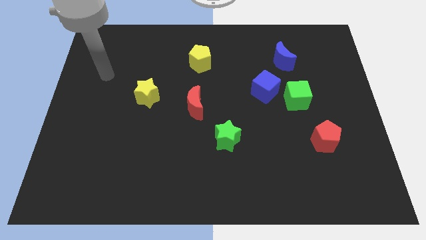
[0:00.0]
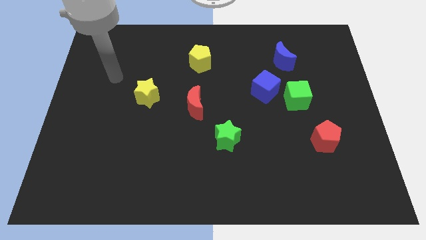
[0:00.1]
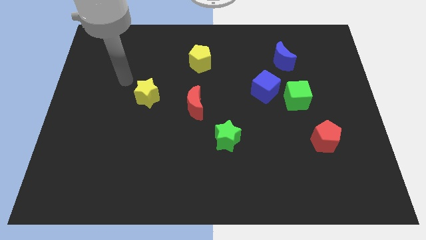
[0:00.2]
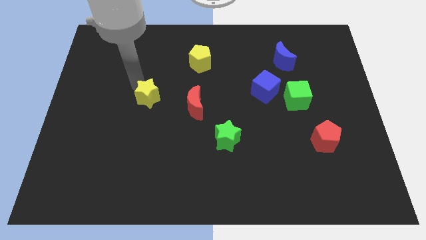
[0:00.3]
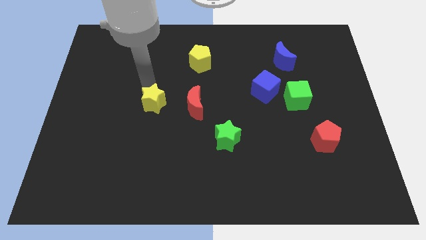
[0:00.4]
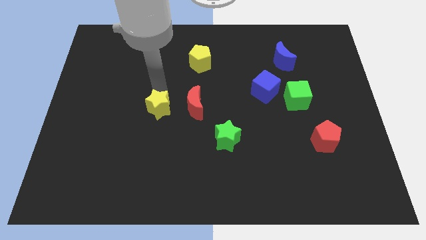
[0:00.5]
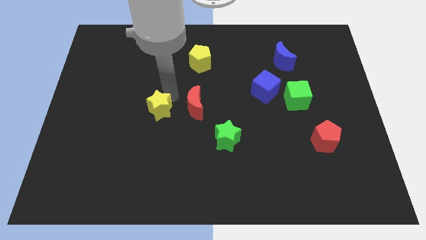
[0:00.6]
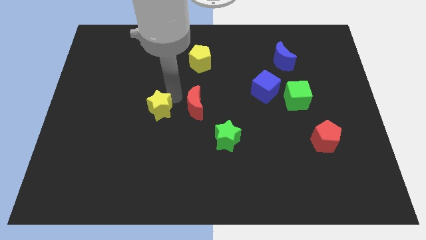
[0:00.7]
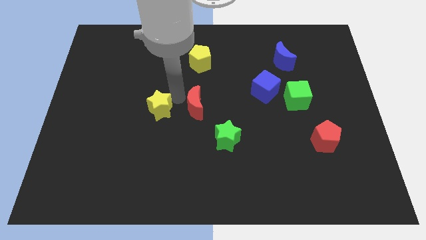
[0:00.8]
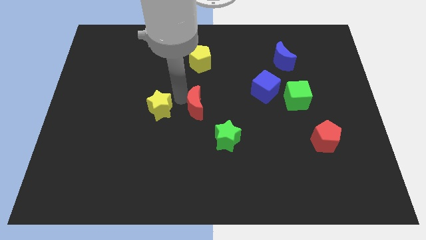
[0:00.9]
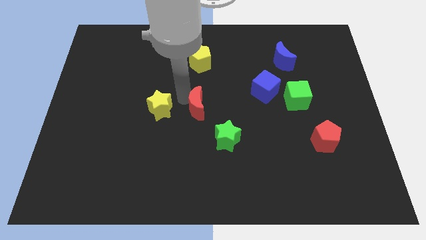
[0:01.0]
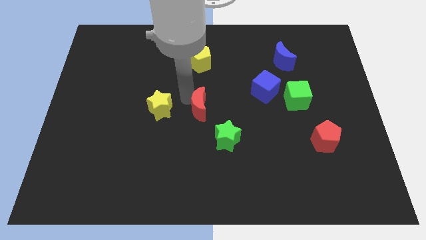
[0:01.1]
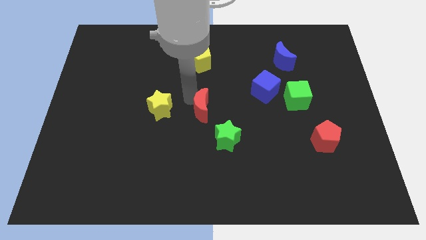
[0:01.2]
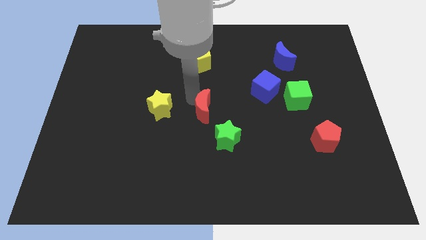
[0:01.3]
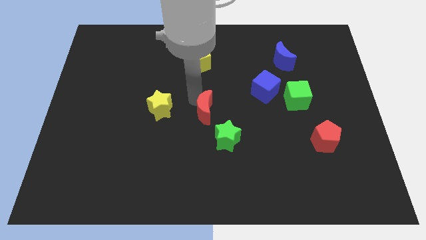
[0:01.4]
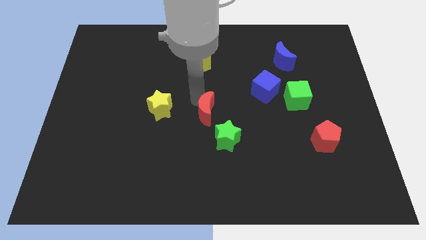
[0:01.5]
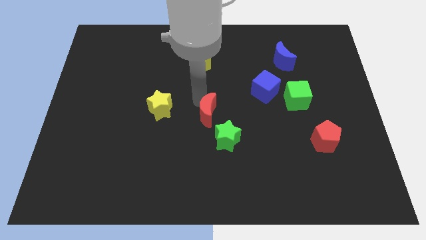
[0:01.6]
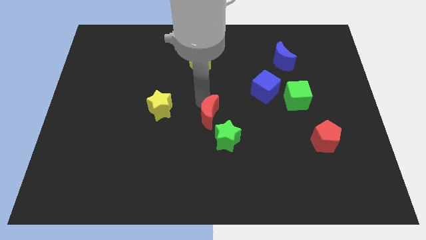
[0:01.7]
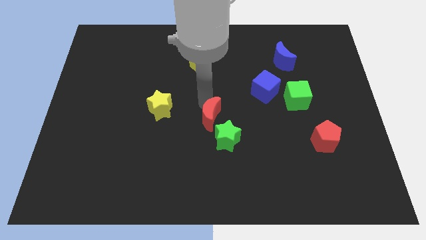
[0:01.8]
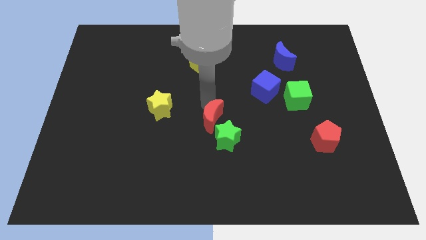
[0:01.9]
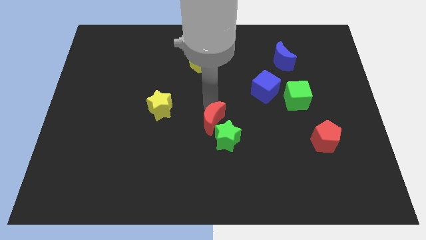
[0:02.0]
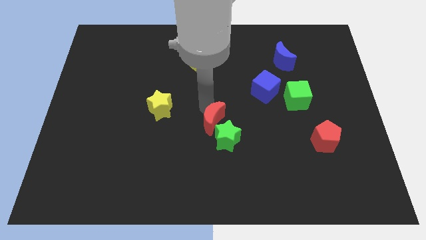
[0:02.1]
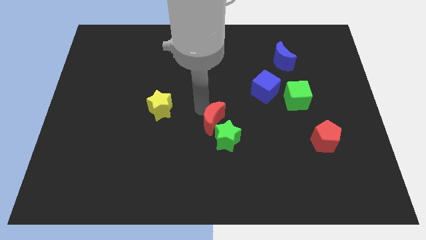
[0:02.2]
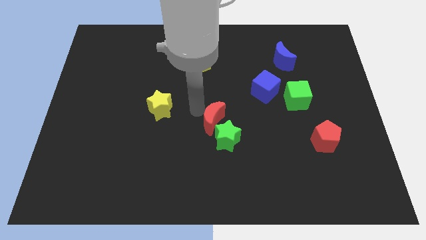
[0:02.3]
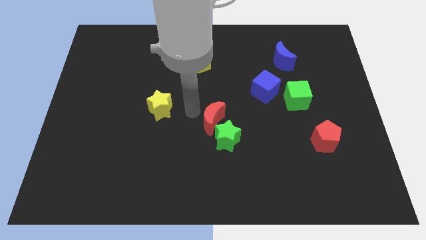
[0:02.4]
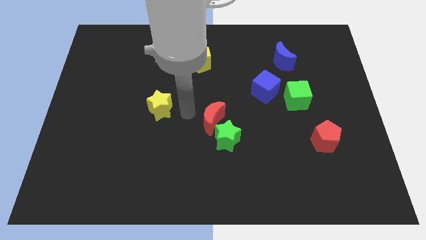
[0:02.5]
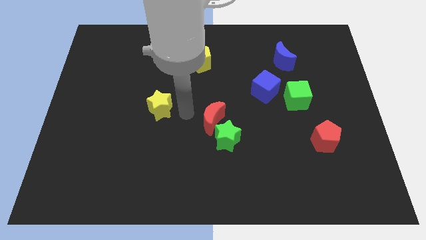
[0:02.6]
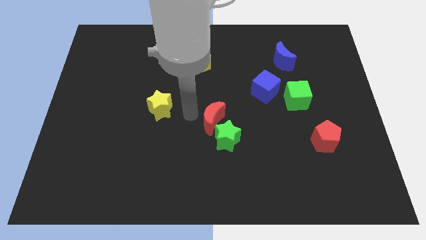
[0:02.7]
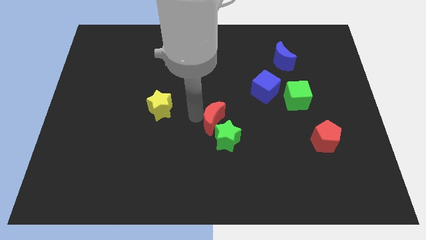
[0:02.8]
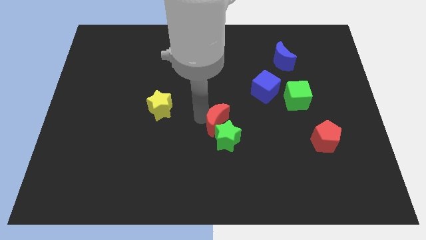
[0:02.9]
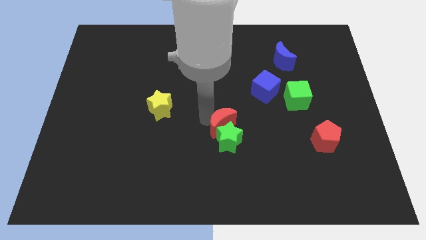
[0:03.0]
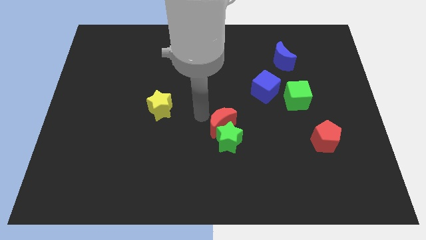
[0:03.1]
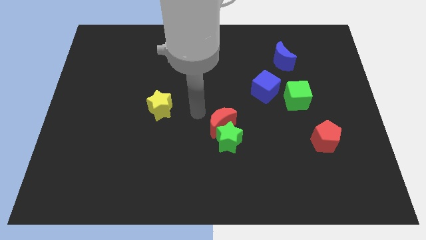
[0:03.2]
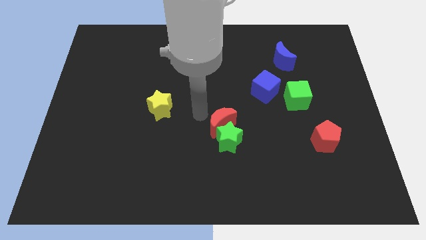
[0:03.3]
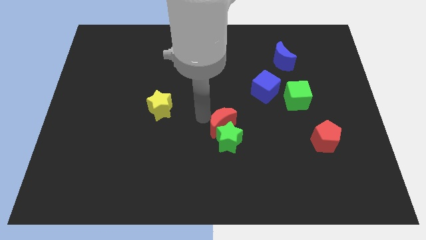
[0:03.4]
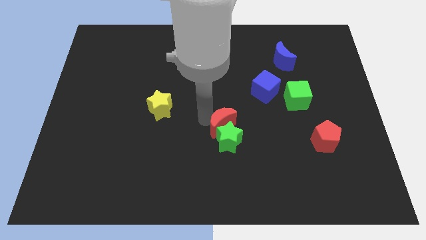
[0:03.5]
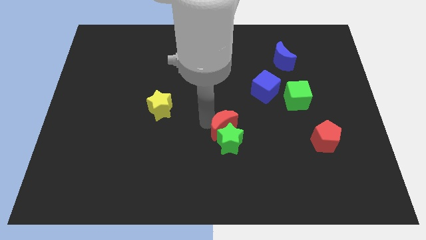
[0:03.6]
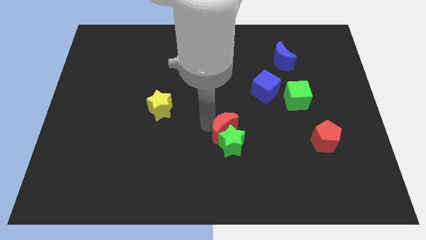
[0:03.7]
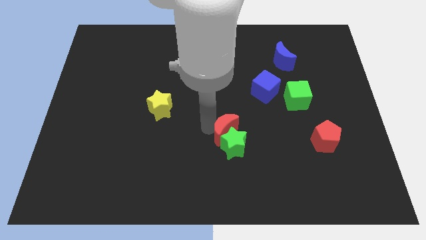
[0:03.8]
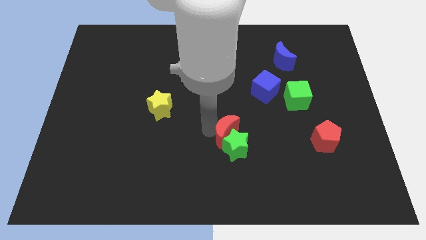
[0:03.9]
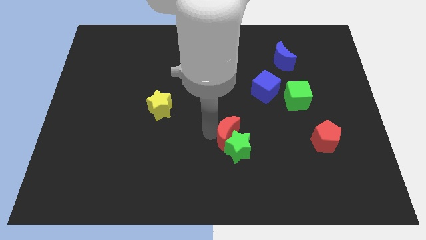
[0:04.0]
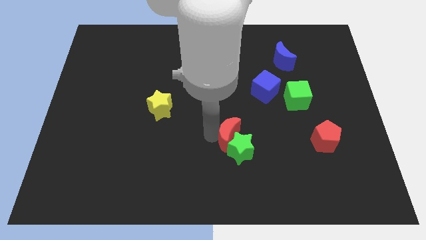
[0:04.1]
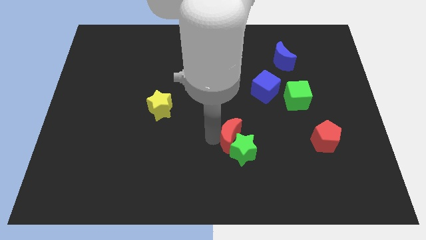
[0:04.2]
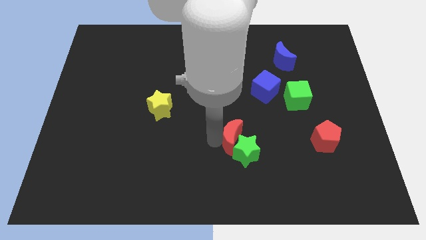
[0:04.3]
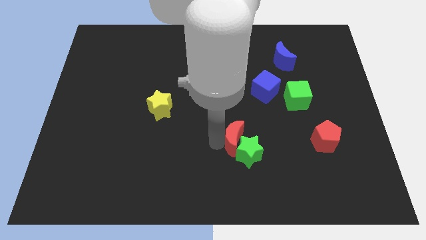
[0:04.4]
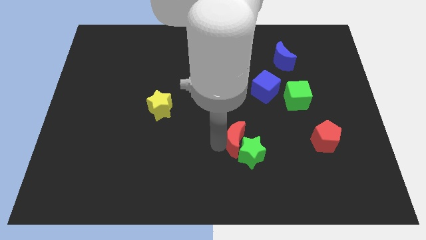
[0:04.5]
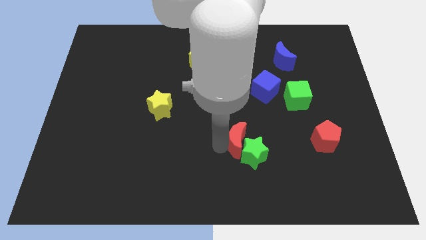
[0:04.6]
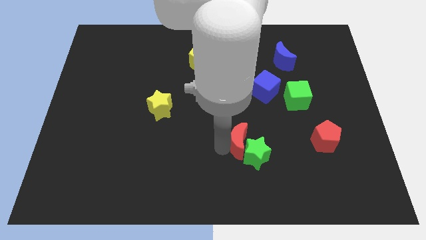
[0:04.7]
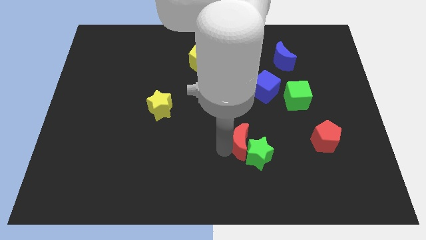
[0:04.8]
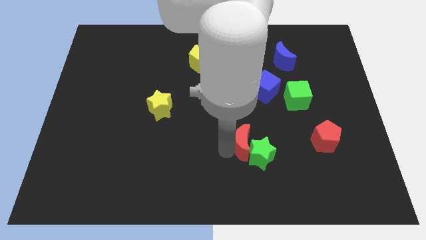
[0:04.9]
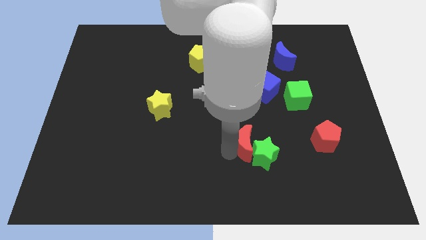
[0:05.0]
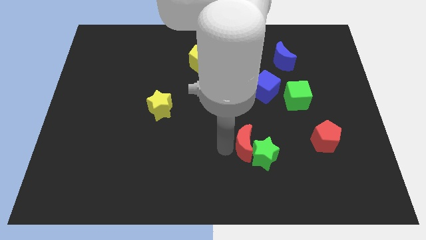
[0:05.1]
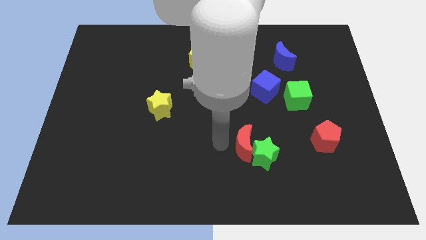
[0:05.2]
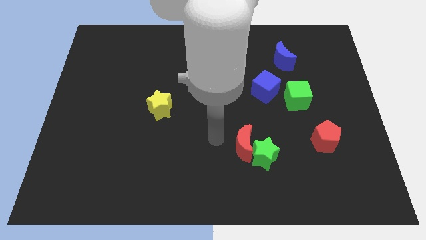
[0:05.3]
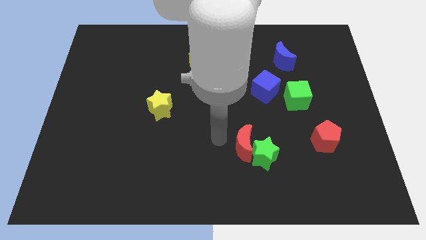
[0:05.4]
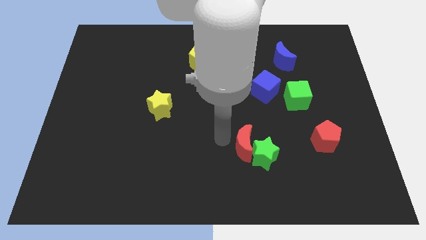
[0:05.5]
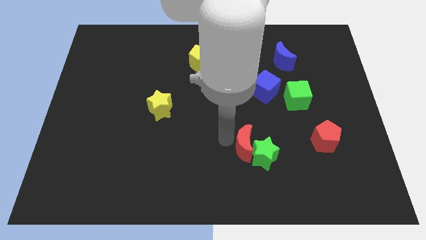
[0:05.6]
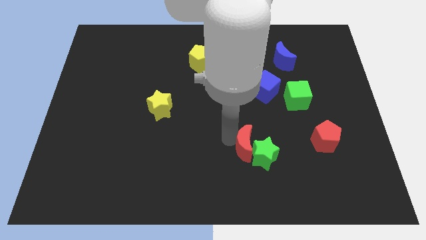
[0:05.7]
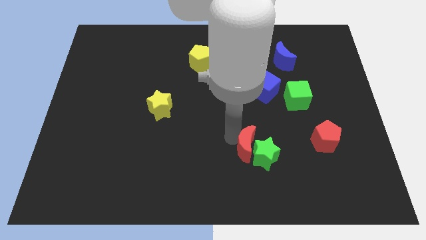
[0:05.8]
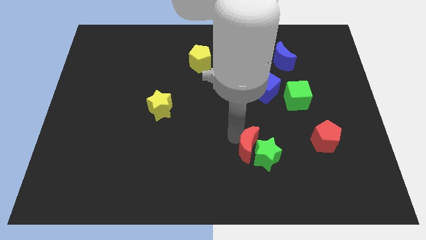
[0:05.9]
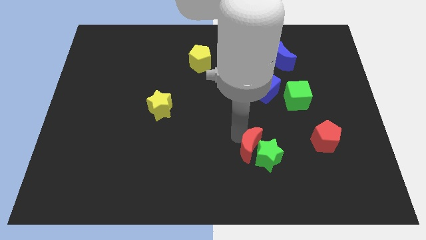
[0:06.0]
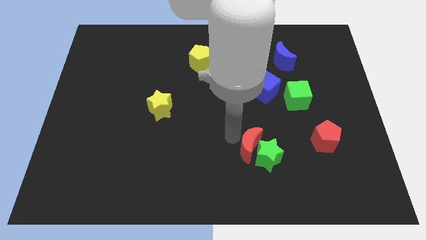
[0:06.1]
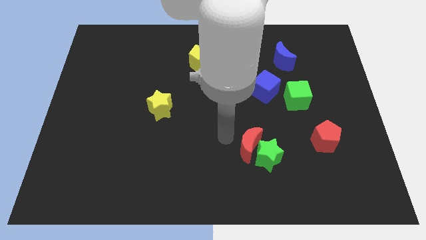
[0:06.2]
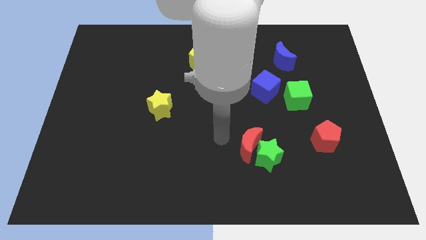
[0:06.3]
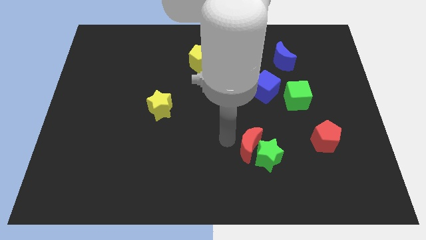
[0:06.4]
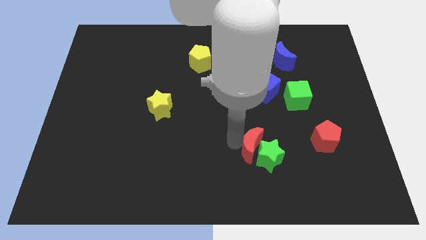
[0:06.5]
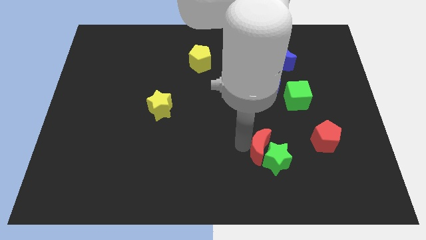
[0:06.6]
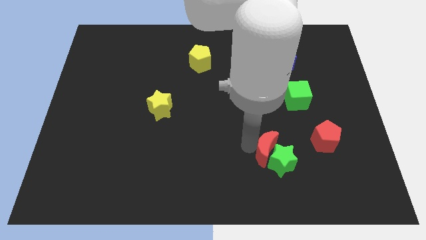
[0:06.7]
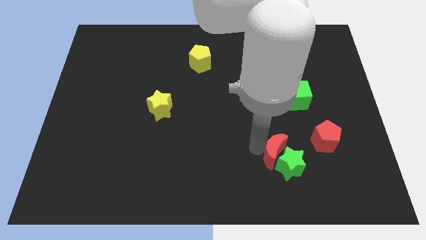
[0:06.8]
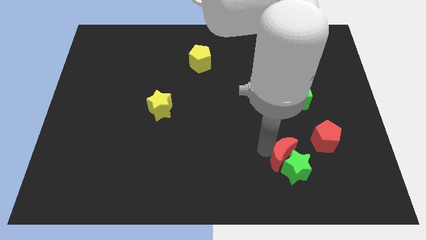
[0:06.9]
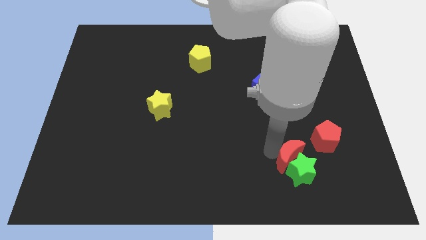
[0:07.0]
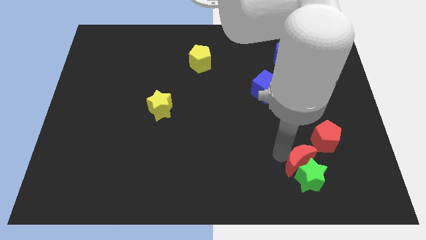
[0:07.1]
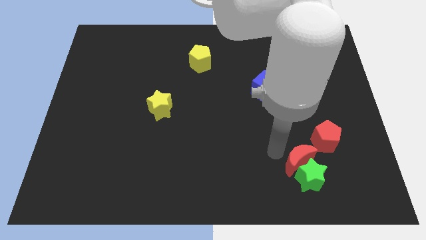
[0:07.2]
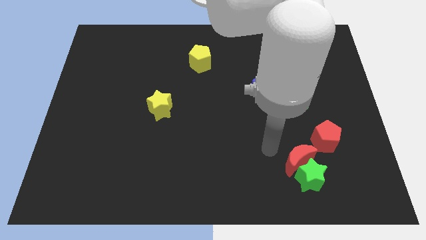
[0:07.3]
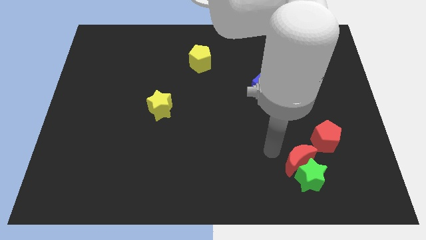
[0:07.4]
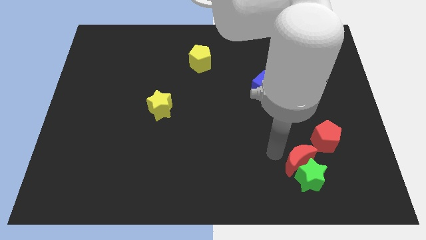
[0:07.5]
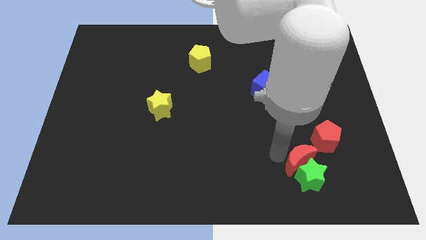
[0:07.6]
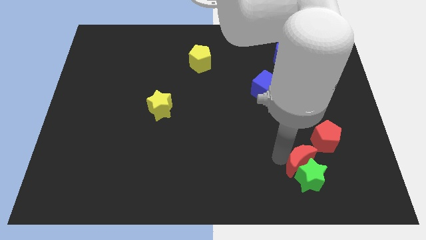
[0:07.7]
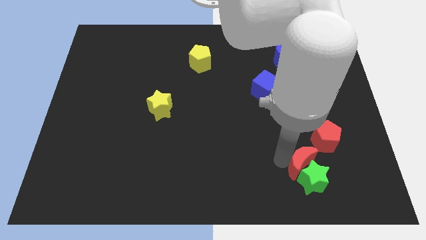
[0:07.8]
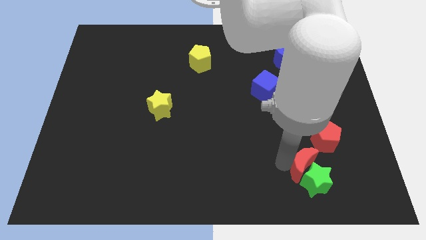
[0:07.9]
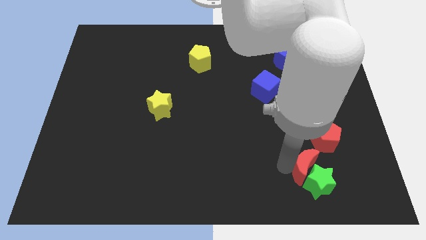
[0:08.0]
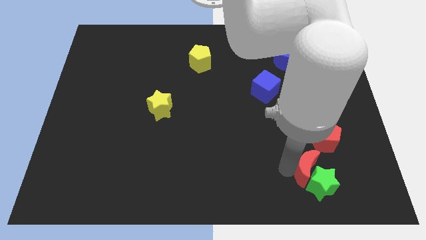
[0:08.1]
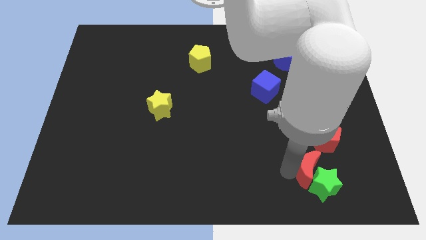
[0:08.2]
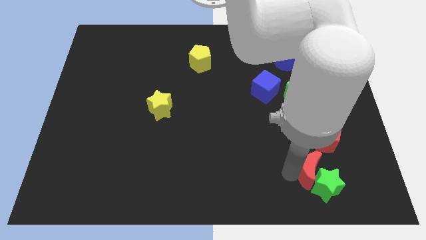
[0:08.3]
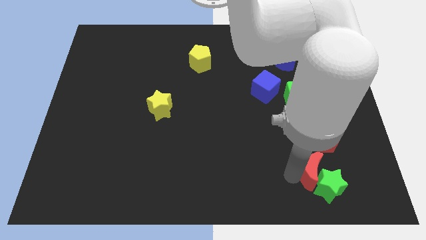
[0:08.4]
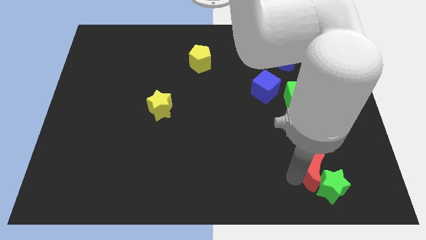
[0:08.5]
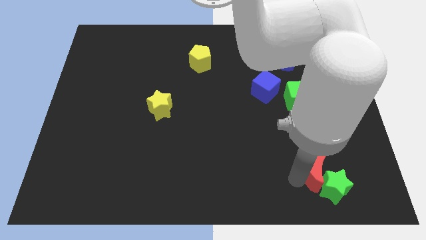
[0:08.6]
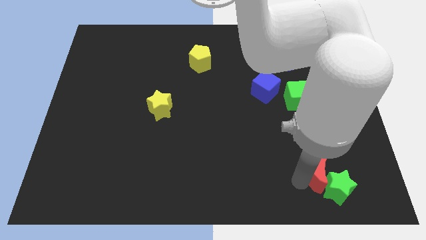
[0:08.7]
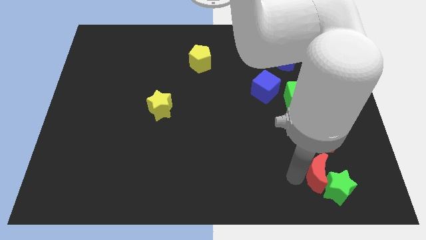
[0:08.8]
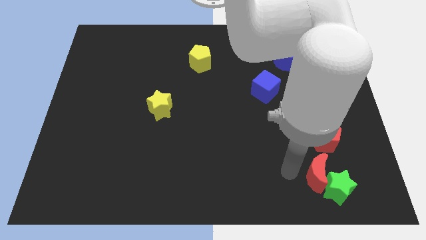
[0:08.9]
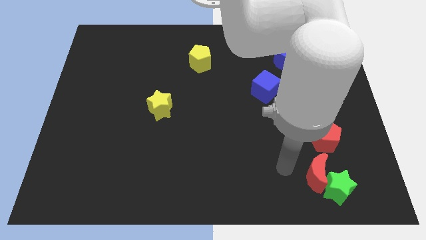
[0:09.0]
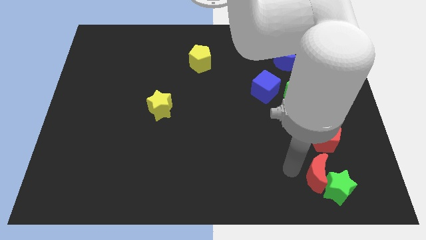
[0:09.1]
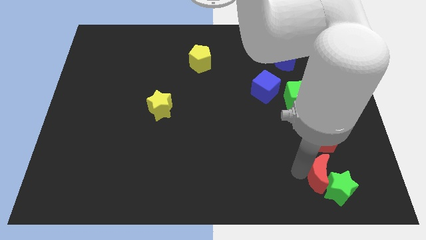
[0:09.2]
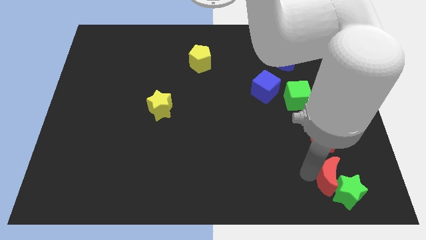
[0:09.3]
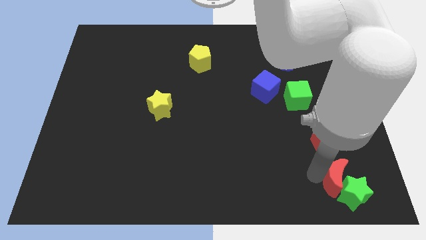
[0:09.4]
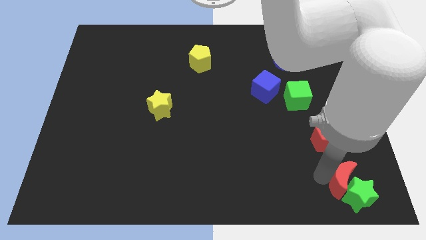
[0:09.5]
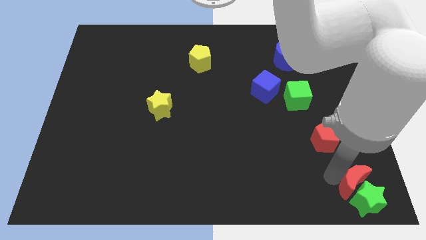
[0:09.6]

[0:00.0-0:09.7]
move the red moon to the lower right corner
